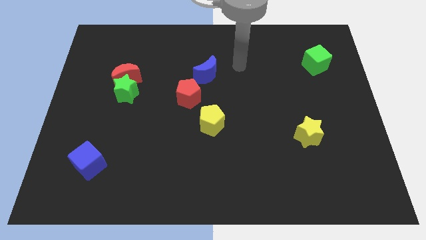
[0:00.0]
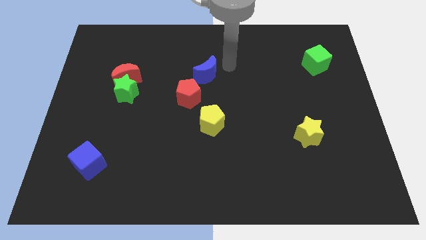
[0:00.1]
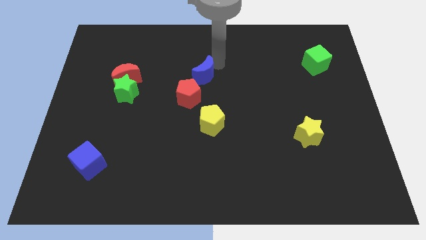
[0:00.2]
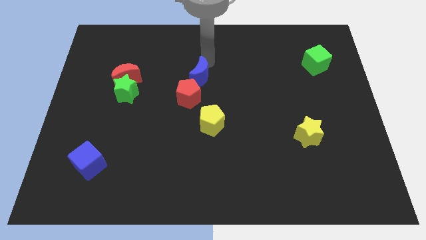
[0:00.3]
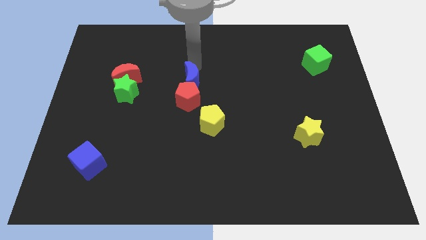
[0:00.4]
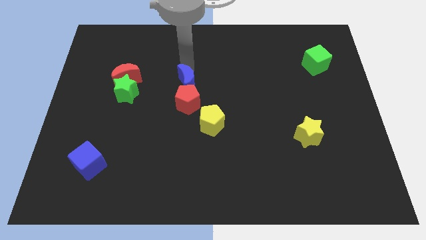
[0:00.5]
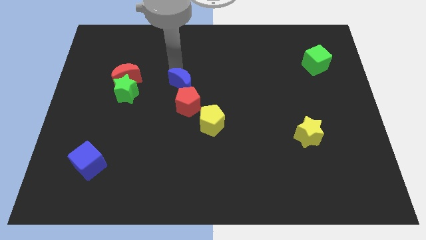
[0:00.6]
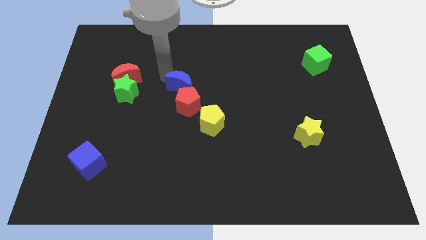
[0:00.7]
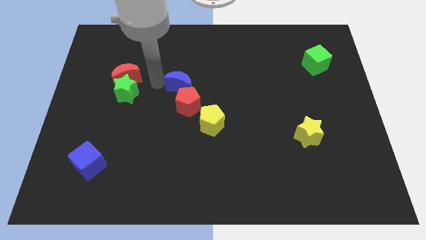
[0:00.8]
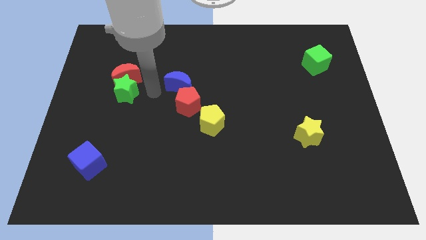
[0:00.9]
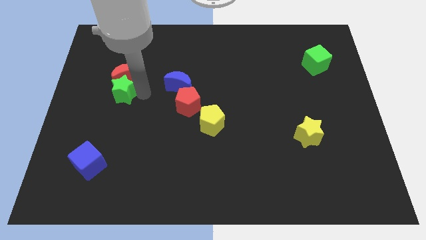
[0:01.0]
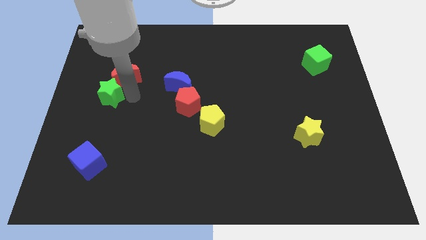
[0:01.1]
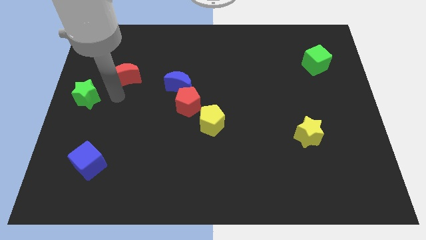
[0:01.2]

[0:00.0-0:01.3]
pull the red moon apart from the green star

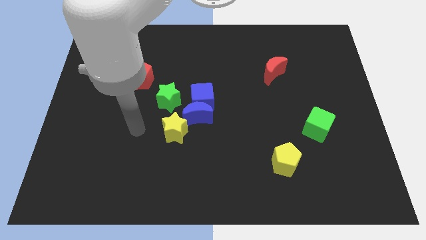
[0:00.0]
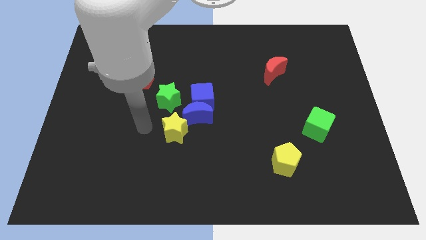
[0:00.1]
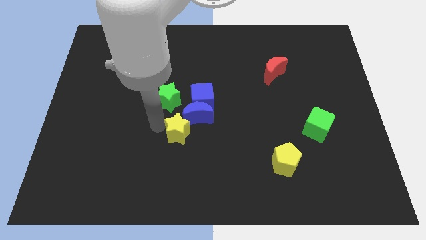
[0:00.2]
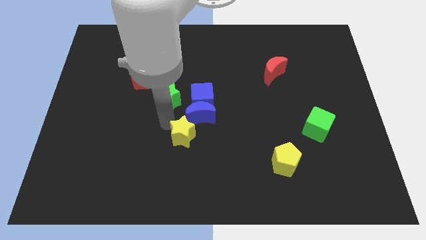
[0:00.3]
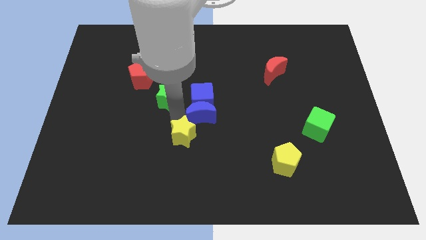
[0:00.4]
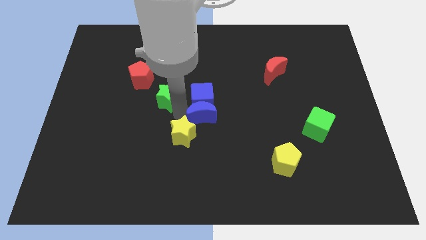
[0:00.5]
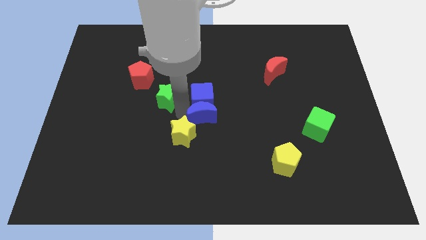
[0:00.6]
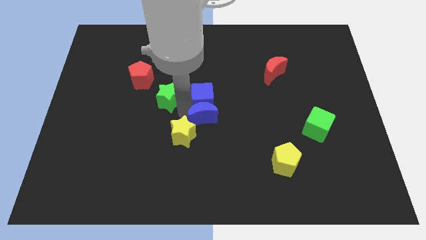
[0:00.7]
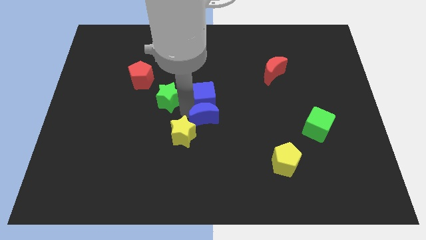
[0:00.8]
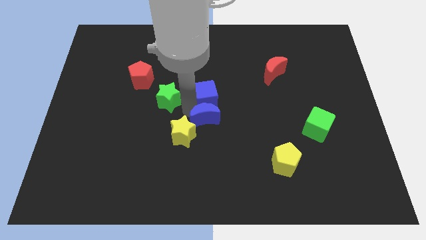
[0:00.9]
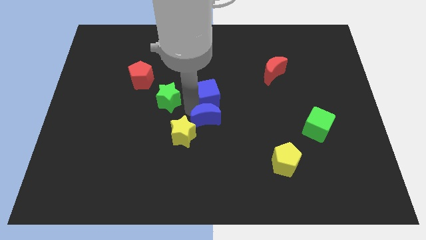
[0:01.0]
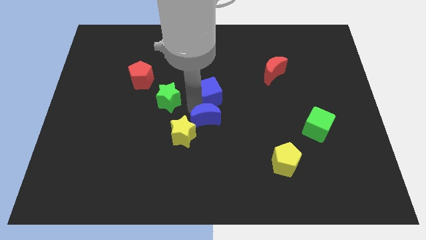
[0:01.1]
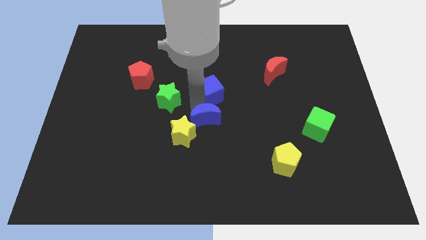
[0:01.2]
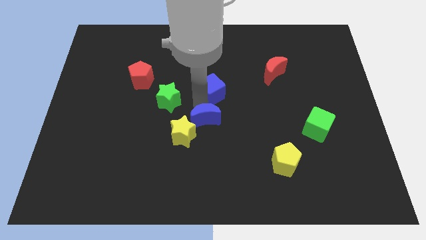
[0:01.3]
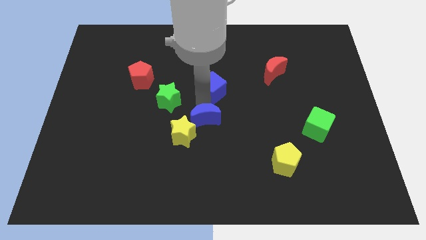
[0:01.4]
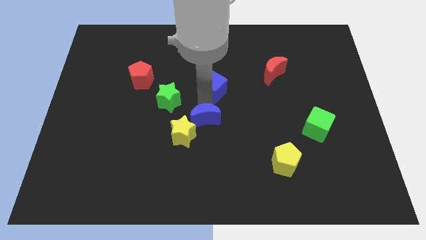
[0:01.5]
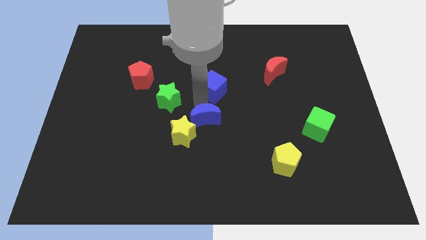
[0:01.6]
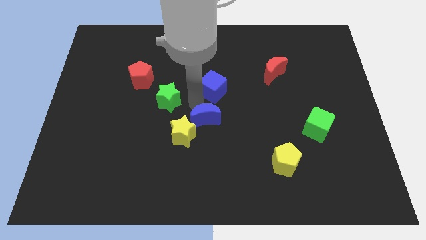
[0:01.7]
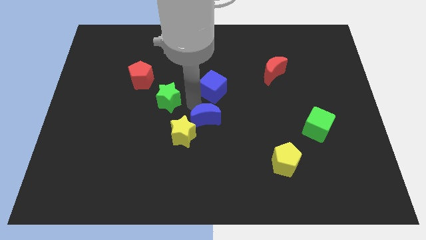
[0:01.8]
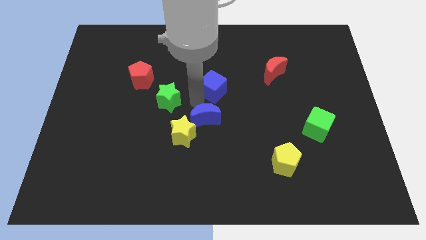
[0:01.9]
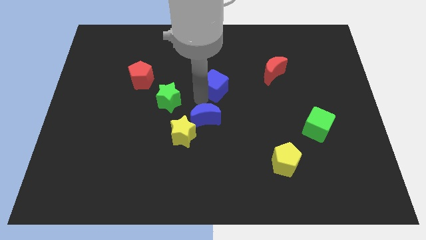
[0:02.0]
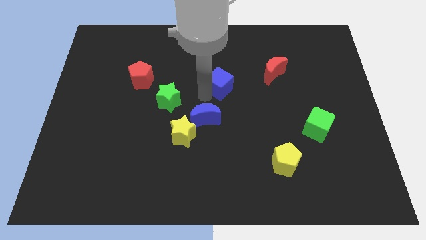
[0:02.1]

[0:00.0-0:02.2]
move the blue cube away from the blue moon and green star

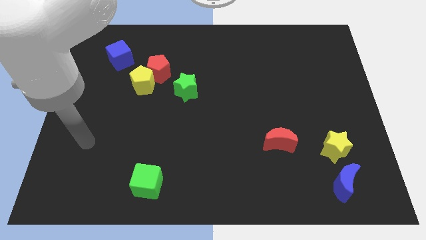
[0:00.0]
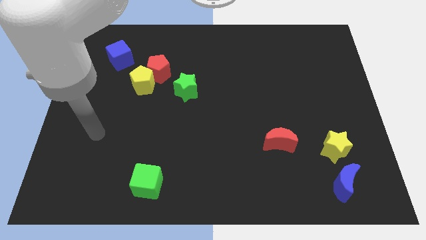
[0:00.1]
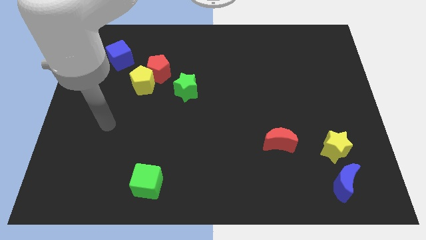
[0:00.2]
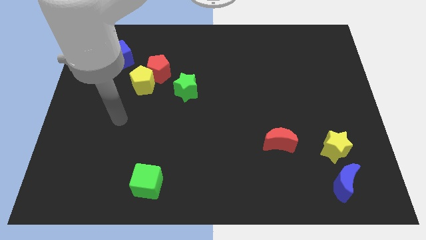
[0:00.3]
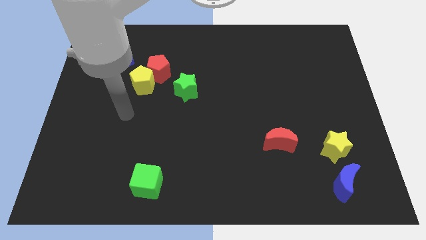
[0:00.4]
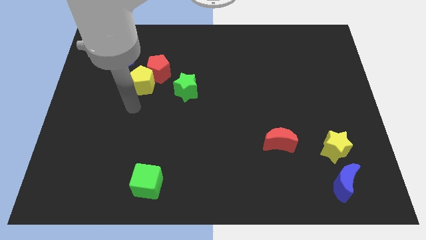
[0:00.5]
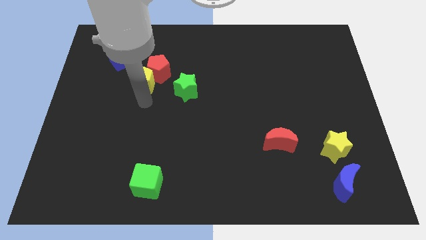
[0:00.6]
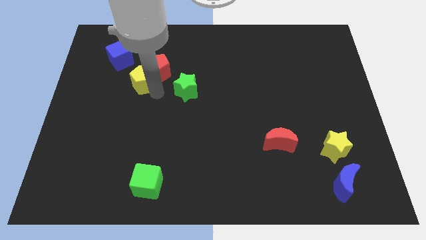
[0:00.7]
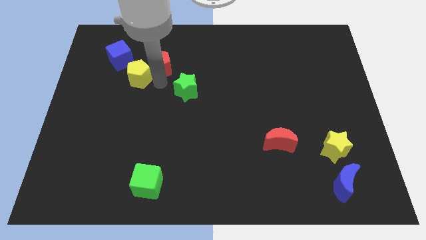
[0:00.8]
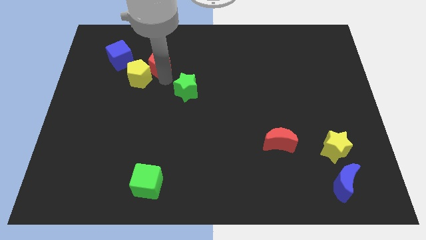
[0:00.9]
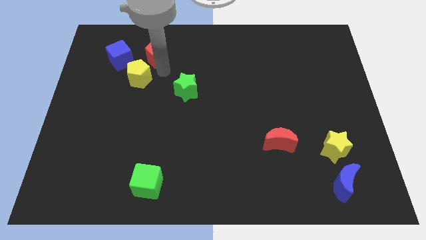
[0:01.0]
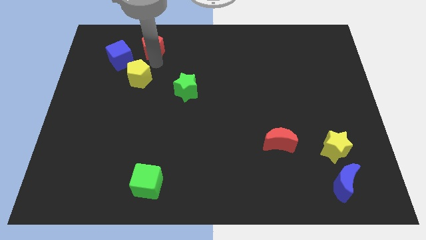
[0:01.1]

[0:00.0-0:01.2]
pull the yellow pentagon apart from the red pentagon

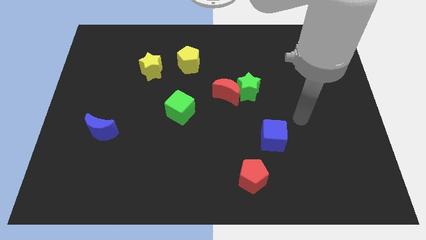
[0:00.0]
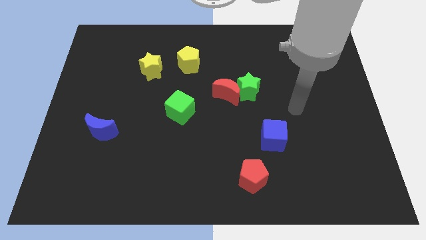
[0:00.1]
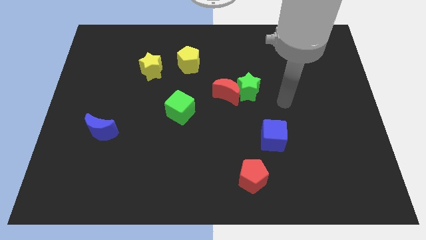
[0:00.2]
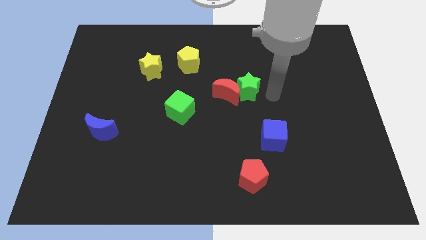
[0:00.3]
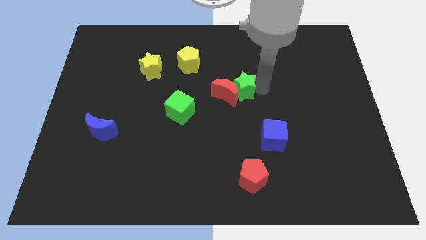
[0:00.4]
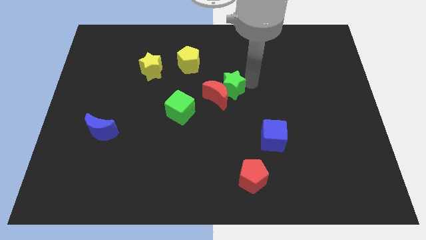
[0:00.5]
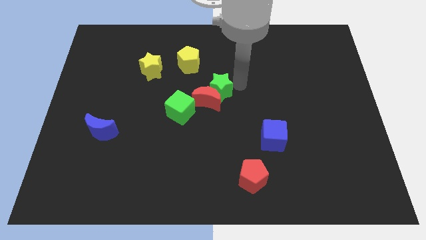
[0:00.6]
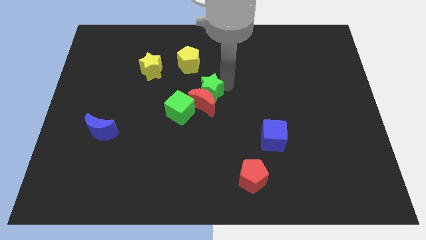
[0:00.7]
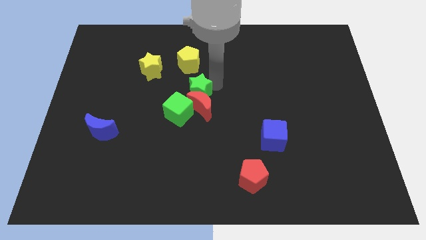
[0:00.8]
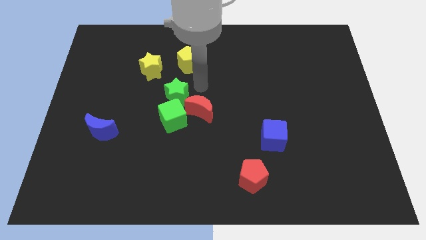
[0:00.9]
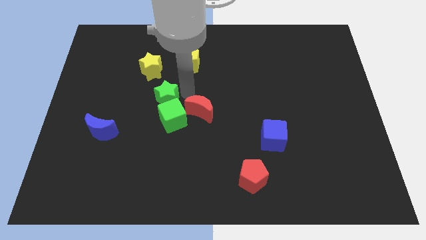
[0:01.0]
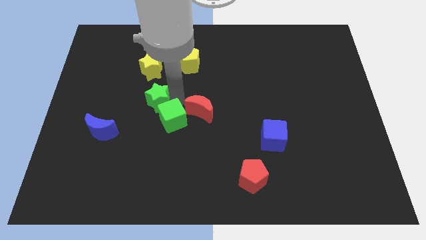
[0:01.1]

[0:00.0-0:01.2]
separate the red moon from the green star

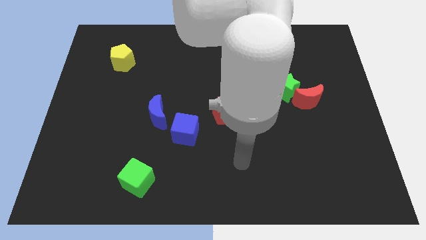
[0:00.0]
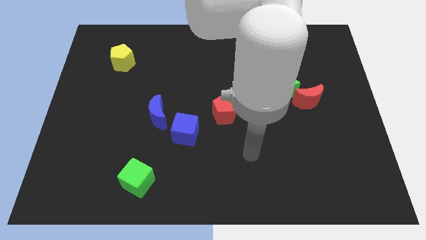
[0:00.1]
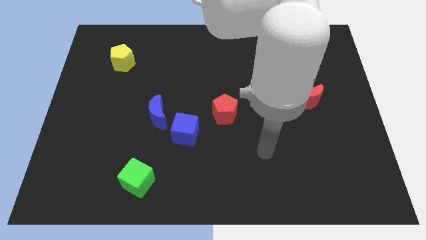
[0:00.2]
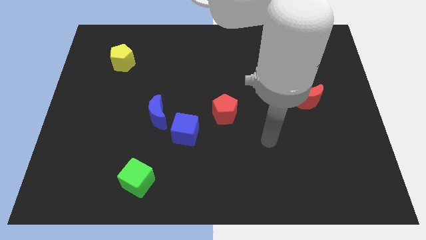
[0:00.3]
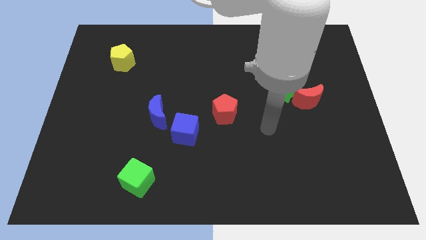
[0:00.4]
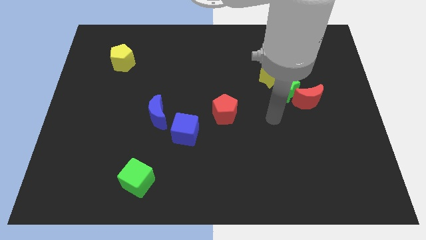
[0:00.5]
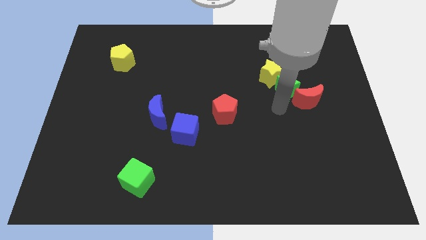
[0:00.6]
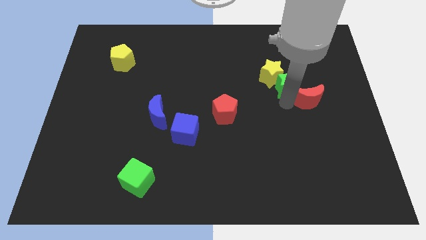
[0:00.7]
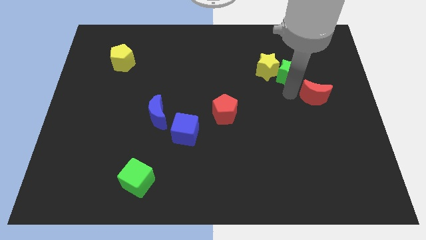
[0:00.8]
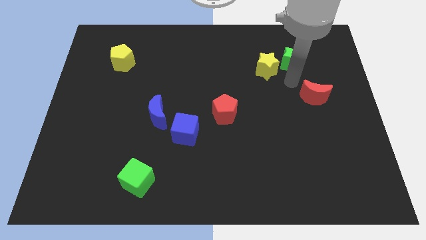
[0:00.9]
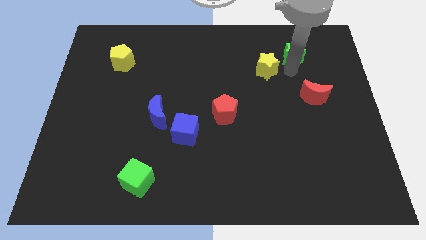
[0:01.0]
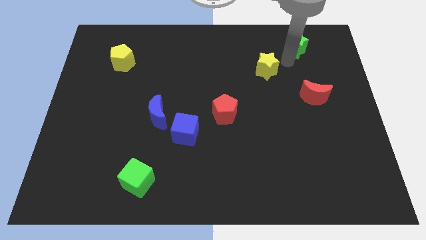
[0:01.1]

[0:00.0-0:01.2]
pull the yellow star apart from the green star

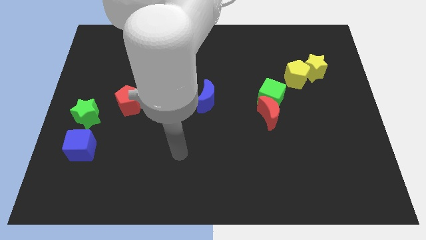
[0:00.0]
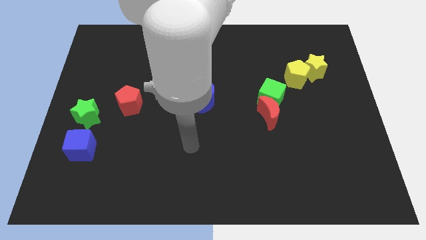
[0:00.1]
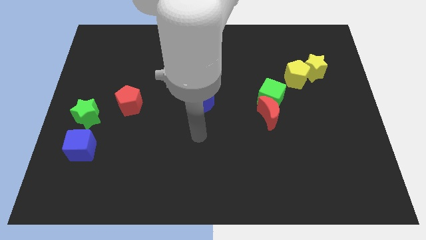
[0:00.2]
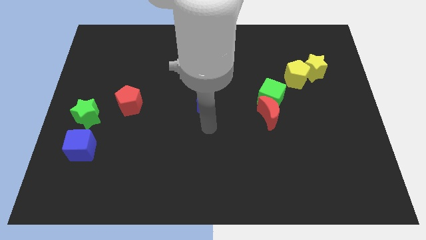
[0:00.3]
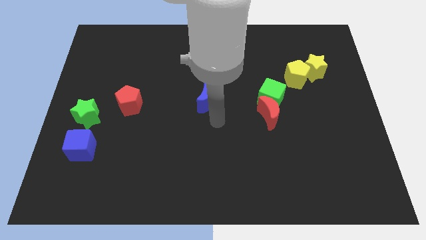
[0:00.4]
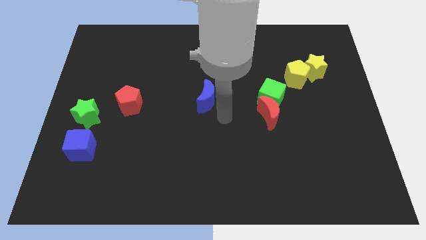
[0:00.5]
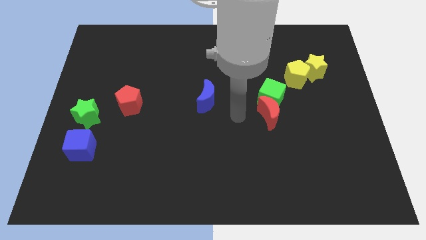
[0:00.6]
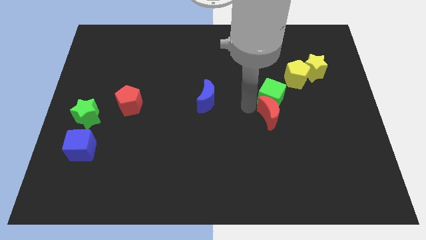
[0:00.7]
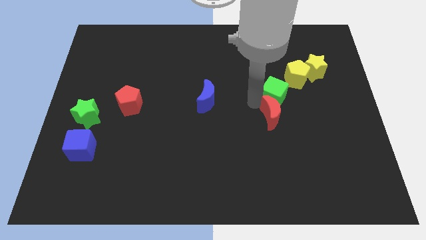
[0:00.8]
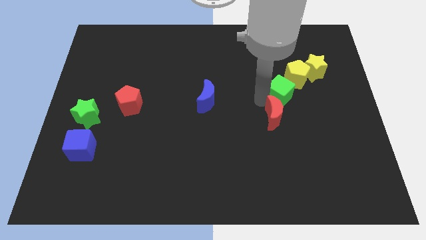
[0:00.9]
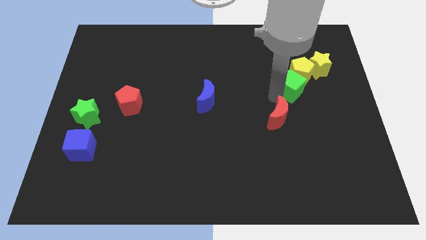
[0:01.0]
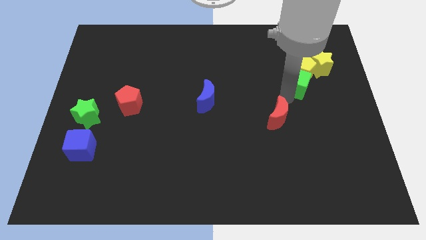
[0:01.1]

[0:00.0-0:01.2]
separate the red moon from the green cube

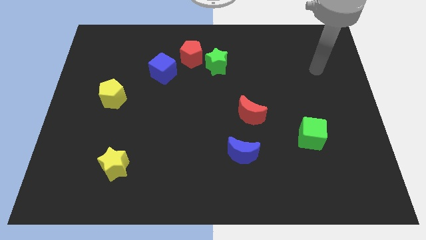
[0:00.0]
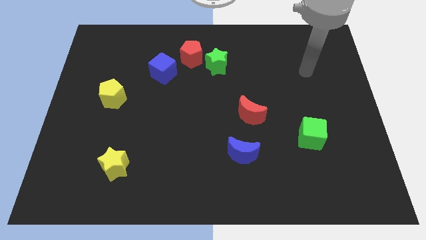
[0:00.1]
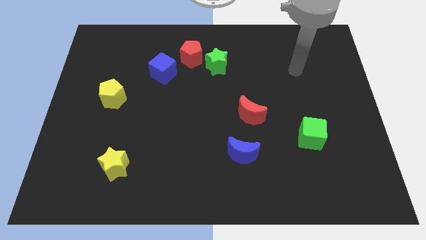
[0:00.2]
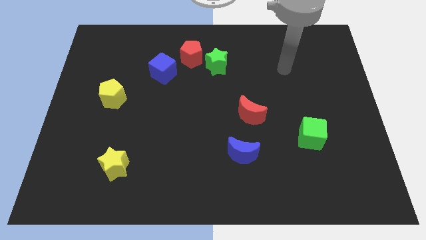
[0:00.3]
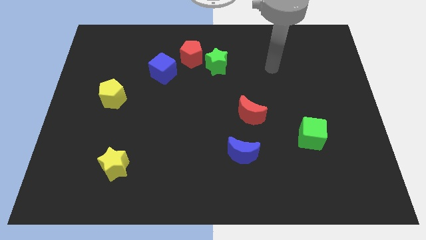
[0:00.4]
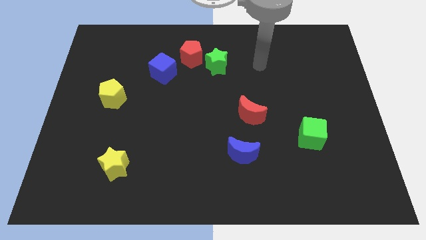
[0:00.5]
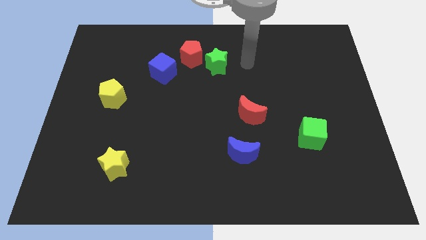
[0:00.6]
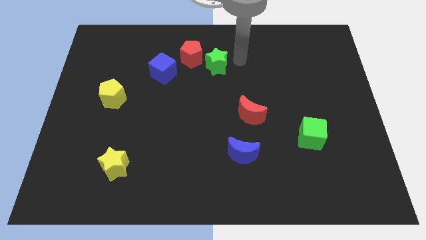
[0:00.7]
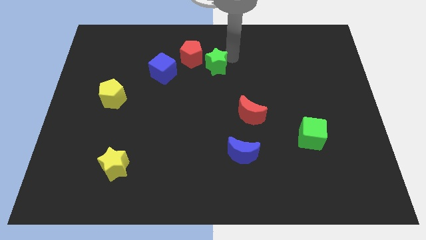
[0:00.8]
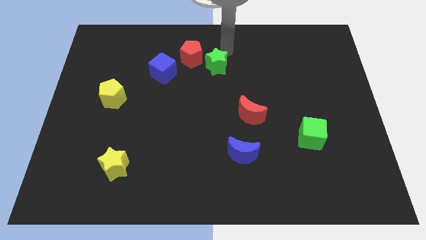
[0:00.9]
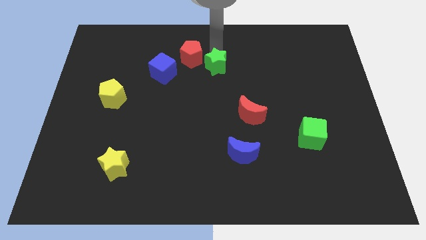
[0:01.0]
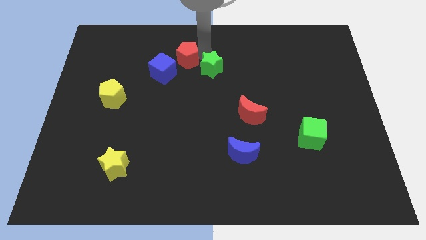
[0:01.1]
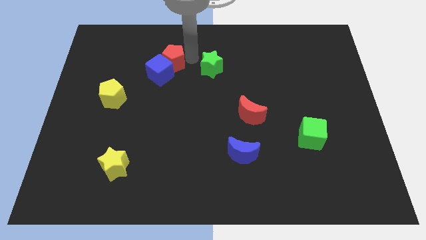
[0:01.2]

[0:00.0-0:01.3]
pull the green star apart from the red pentagon
